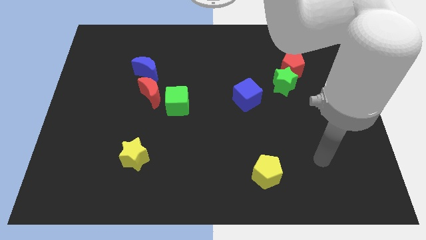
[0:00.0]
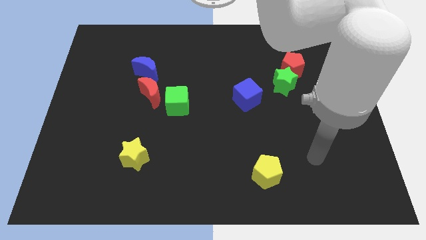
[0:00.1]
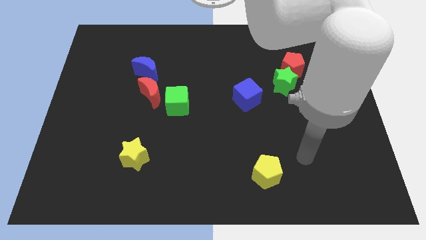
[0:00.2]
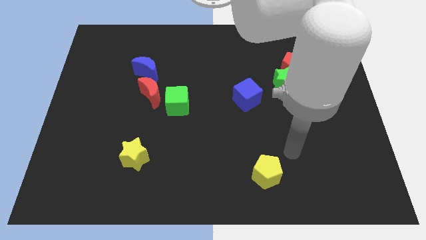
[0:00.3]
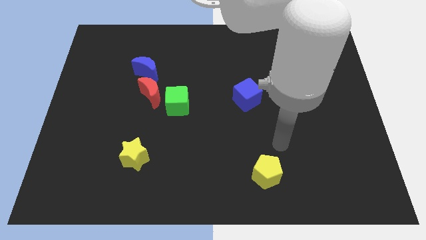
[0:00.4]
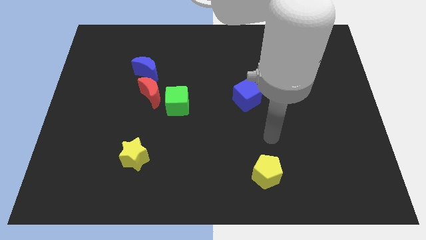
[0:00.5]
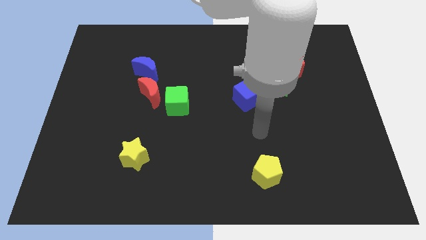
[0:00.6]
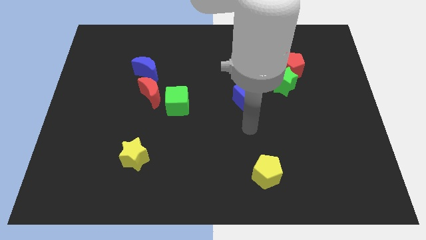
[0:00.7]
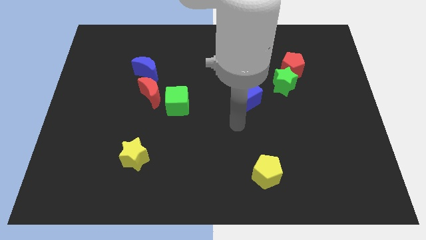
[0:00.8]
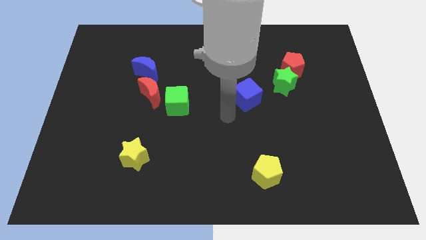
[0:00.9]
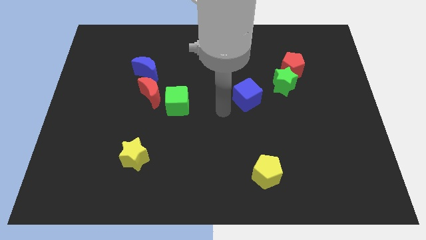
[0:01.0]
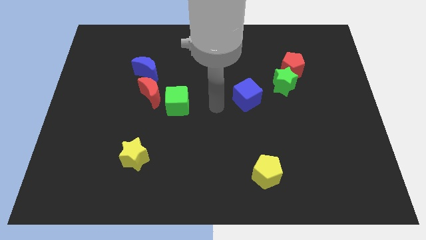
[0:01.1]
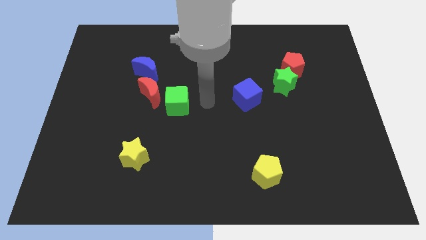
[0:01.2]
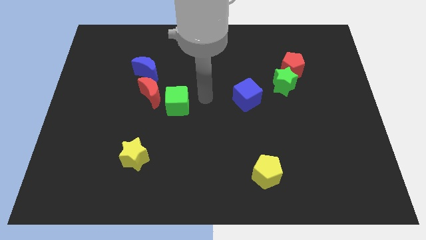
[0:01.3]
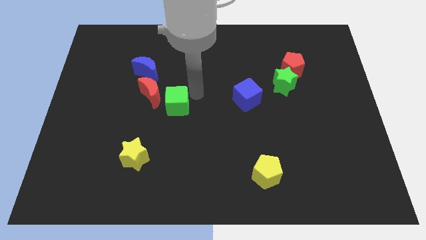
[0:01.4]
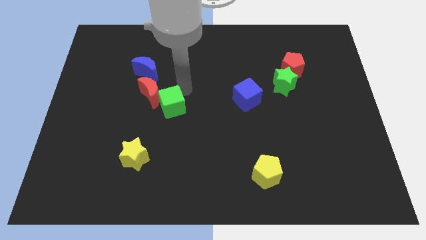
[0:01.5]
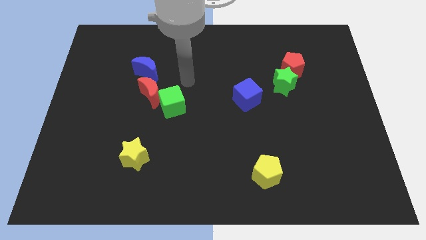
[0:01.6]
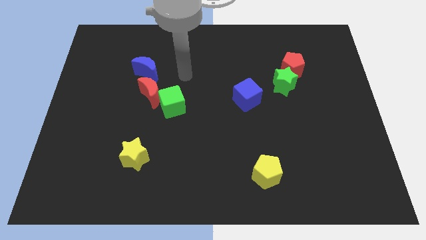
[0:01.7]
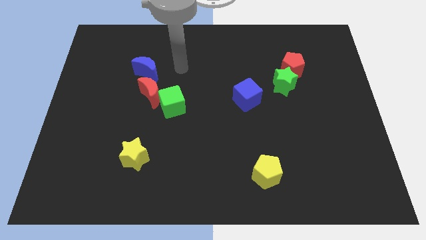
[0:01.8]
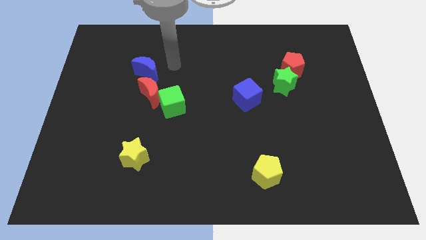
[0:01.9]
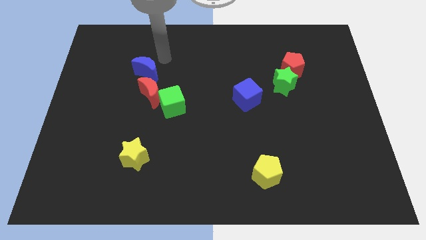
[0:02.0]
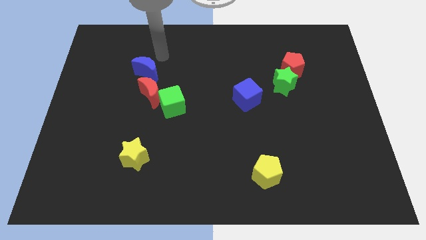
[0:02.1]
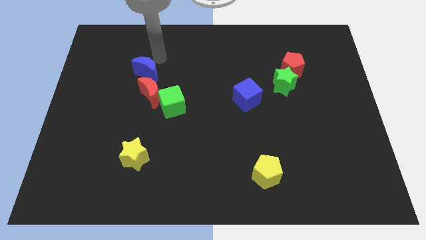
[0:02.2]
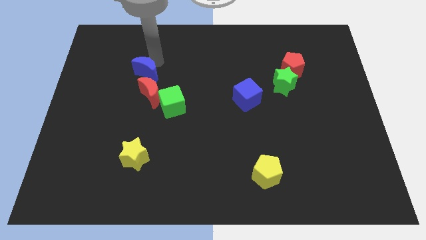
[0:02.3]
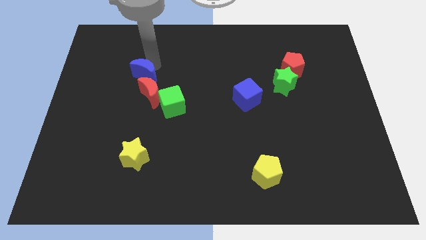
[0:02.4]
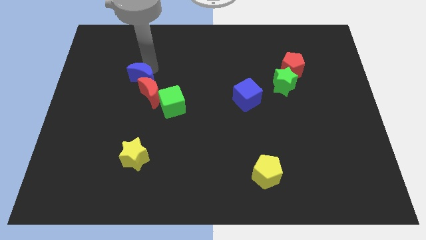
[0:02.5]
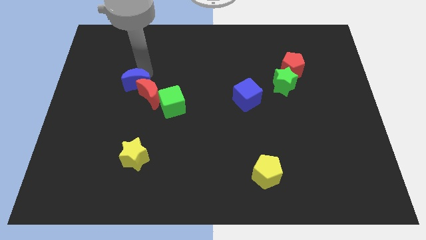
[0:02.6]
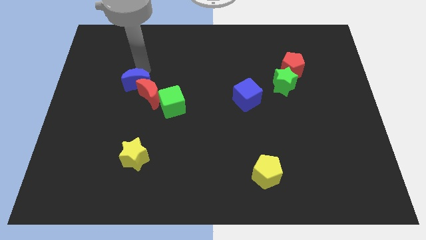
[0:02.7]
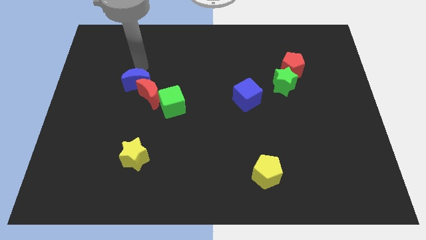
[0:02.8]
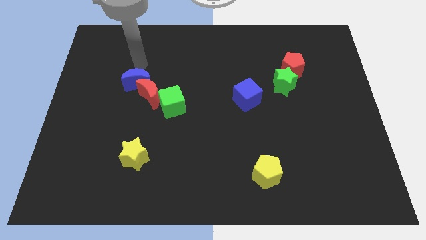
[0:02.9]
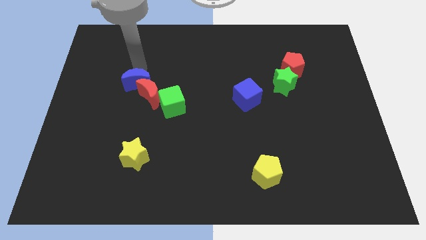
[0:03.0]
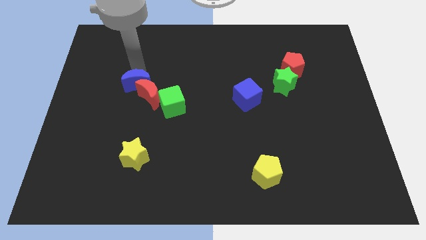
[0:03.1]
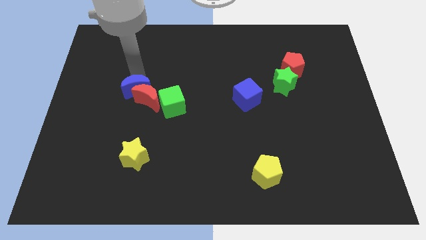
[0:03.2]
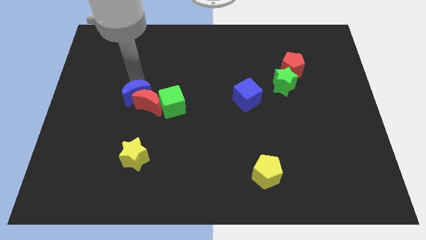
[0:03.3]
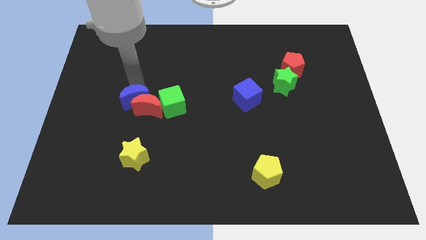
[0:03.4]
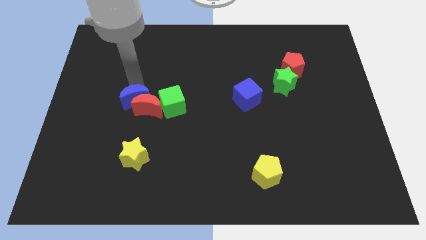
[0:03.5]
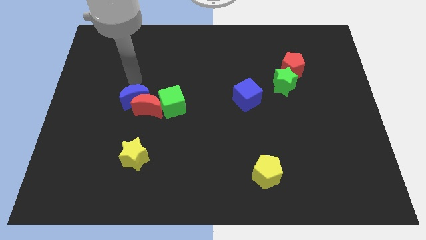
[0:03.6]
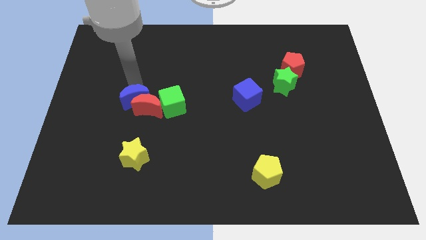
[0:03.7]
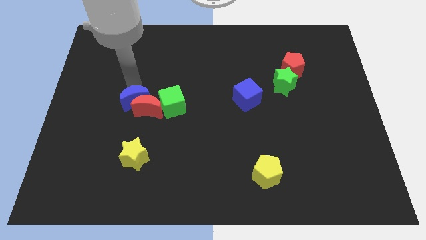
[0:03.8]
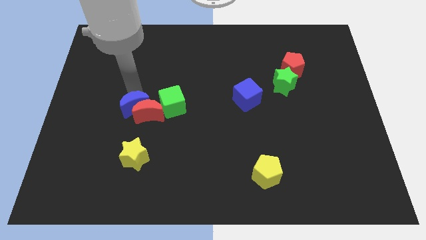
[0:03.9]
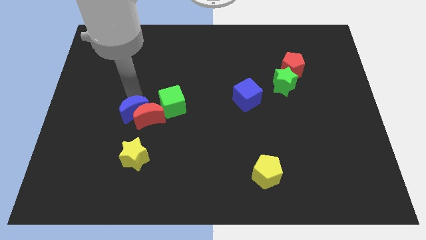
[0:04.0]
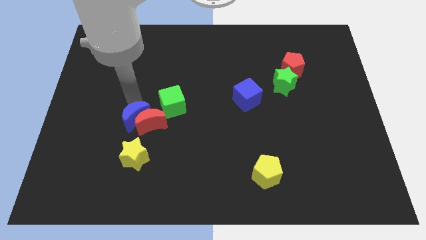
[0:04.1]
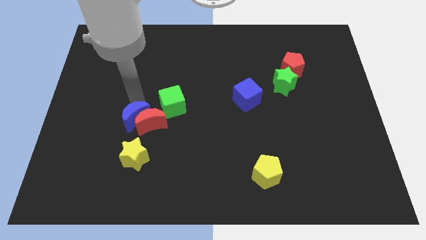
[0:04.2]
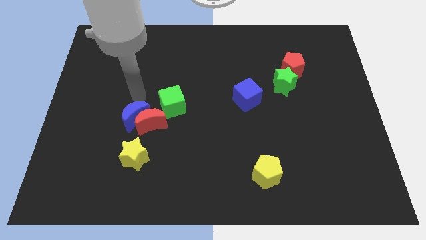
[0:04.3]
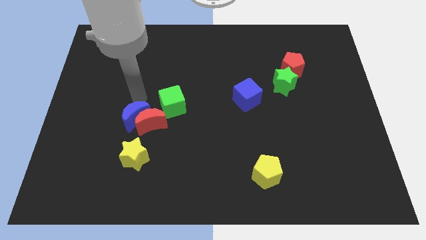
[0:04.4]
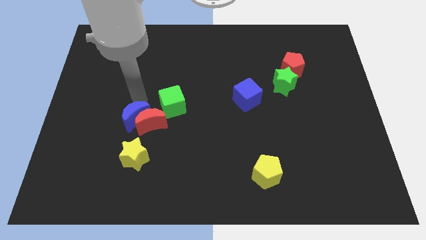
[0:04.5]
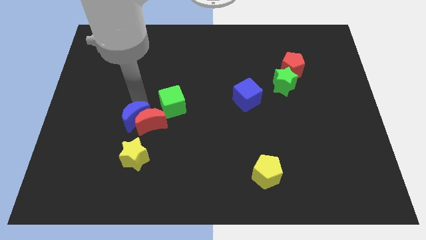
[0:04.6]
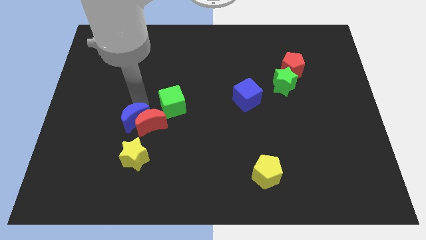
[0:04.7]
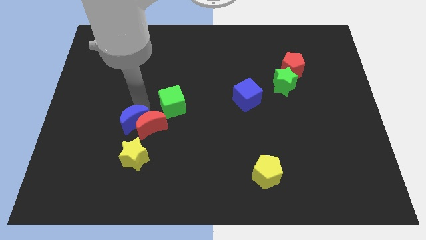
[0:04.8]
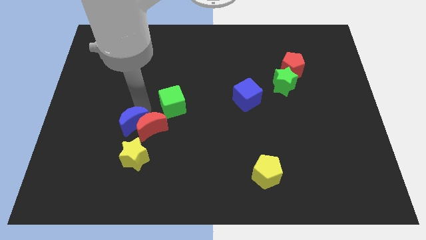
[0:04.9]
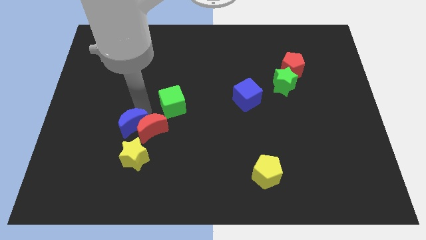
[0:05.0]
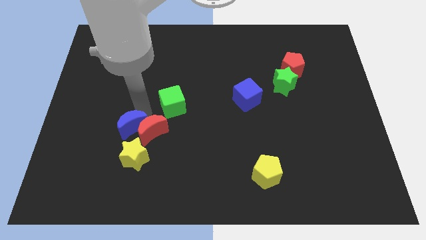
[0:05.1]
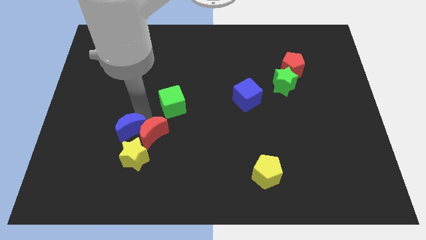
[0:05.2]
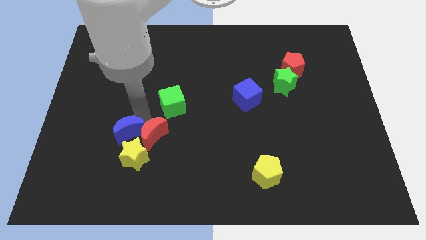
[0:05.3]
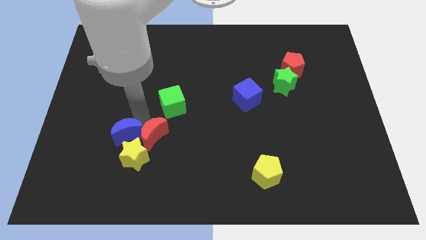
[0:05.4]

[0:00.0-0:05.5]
move the blue moon towards the yellow star

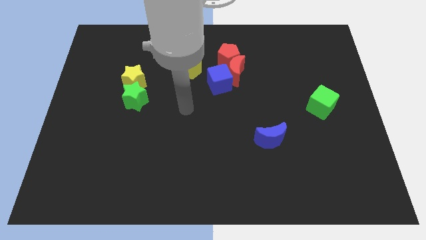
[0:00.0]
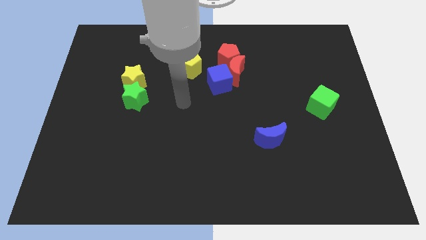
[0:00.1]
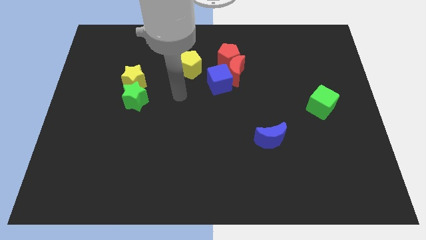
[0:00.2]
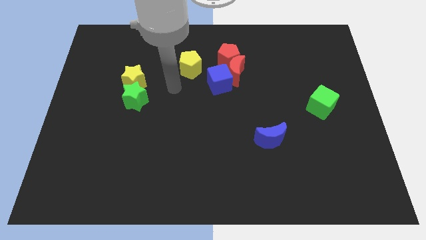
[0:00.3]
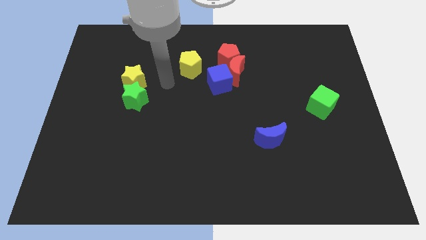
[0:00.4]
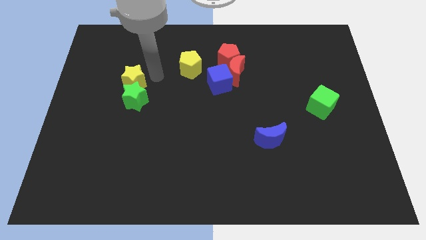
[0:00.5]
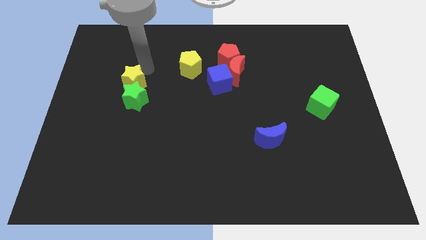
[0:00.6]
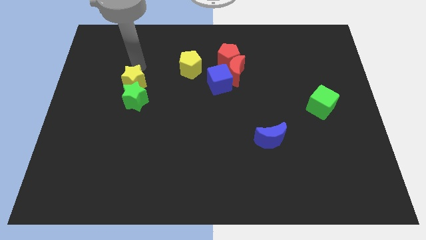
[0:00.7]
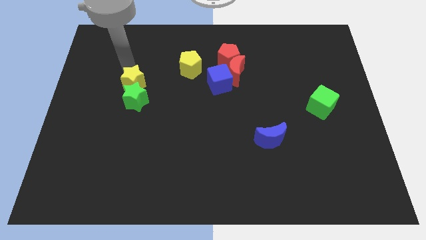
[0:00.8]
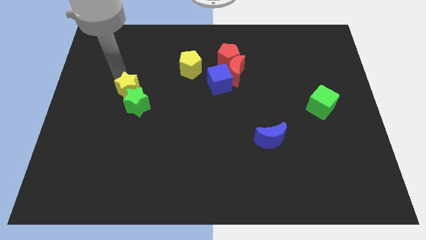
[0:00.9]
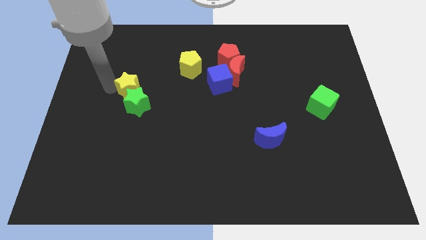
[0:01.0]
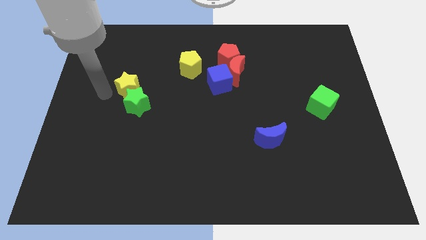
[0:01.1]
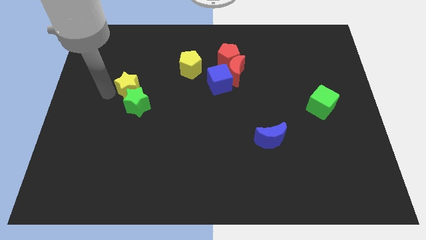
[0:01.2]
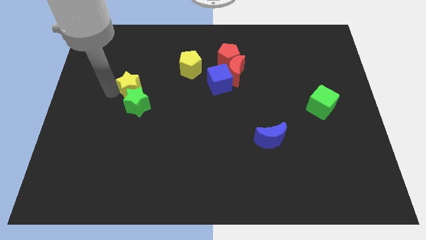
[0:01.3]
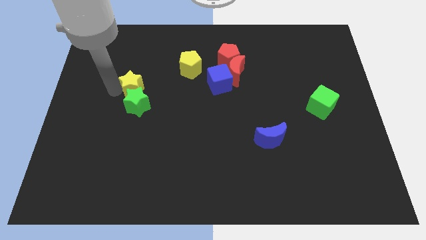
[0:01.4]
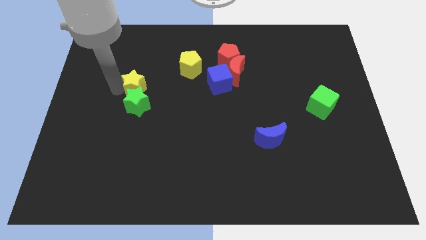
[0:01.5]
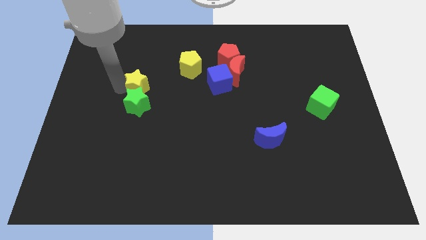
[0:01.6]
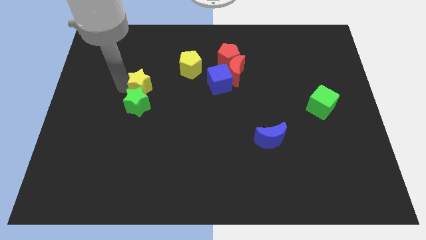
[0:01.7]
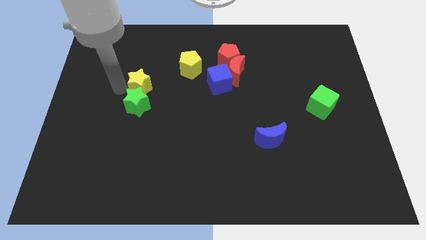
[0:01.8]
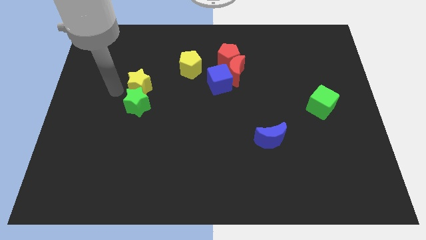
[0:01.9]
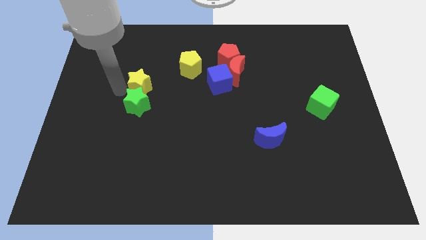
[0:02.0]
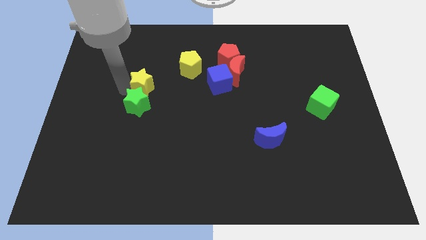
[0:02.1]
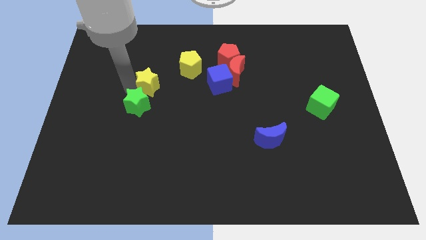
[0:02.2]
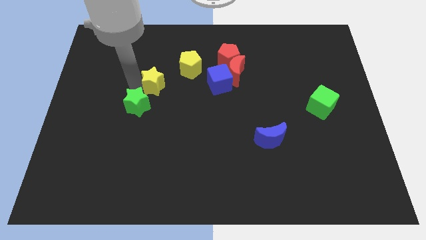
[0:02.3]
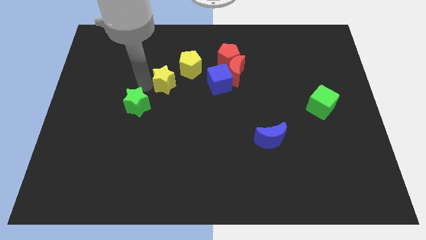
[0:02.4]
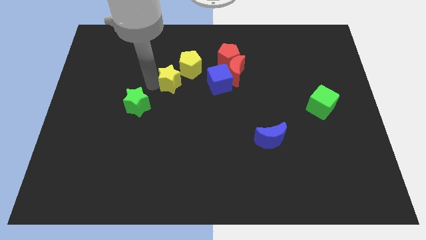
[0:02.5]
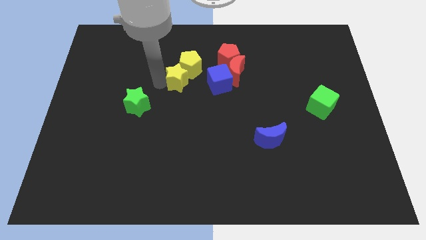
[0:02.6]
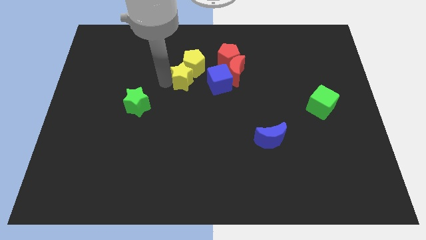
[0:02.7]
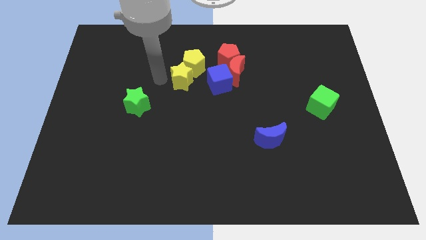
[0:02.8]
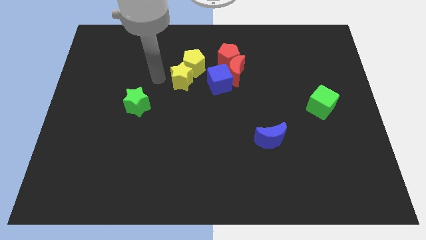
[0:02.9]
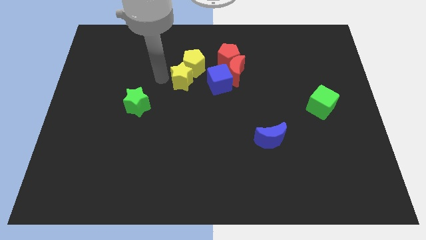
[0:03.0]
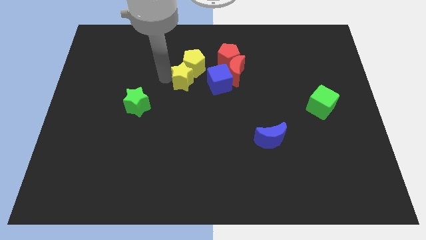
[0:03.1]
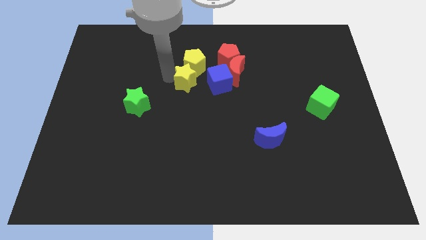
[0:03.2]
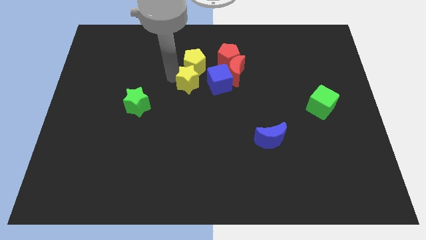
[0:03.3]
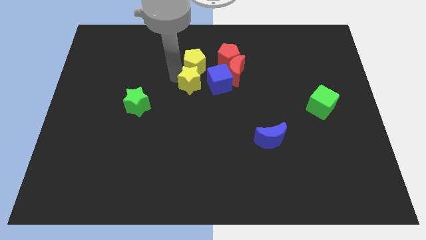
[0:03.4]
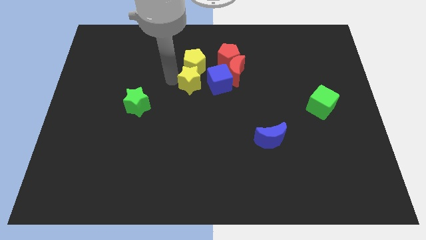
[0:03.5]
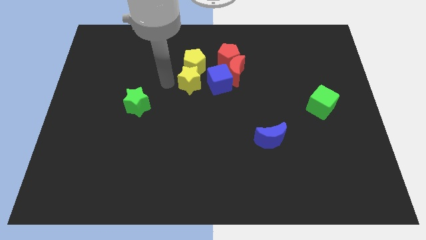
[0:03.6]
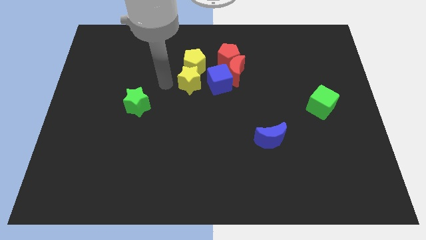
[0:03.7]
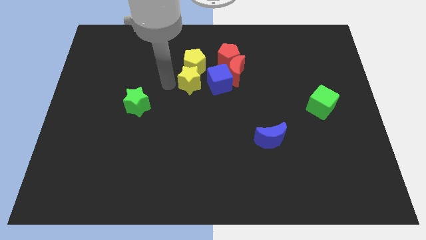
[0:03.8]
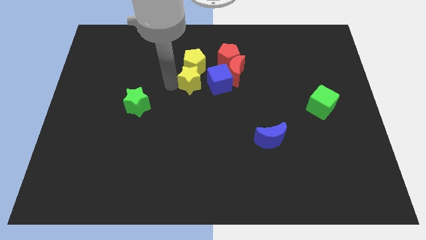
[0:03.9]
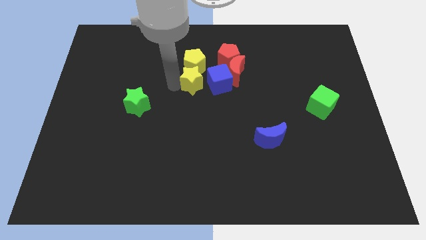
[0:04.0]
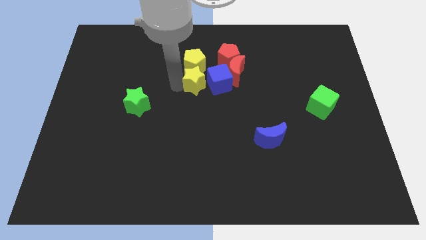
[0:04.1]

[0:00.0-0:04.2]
push the yellow star towards the blue cube
